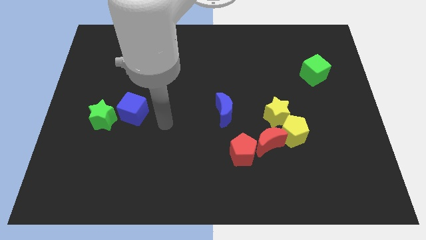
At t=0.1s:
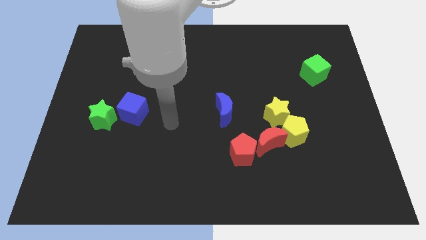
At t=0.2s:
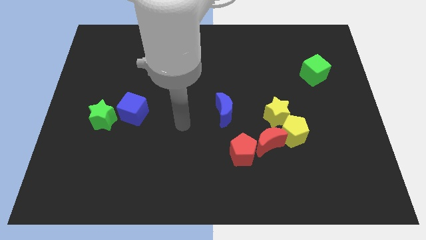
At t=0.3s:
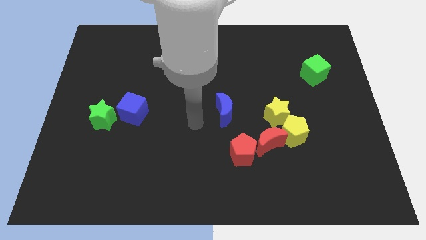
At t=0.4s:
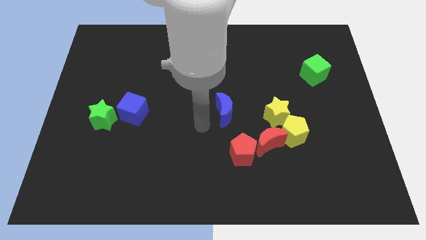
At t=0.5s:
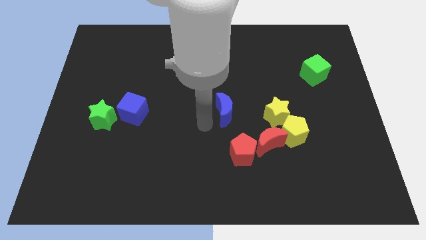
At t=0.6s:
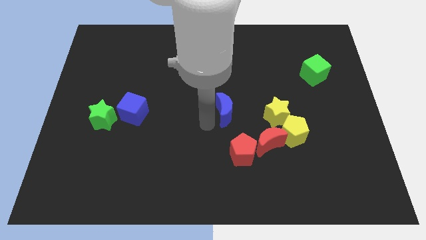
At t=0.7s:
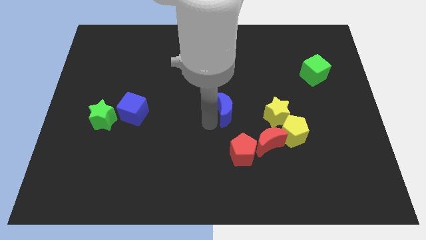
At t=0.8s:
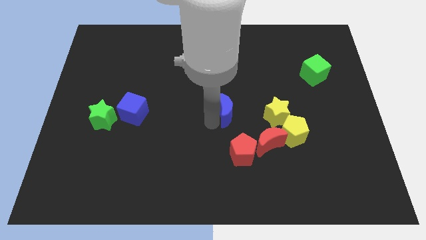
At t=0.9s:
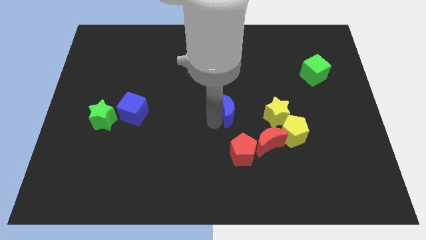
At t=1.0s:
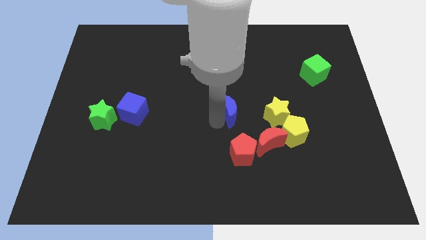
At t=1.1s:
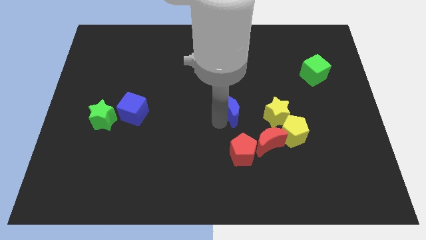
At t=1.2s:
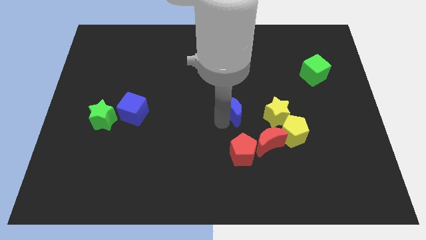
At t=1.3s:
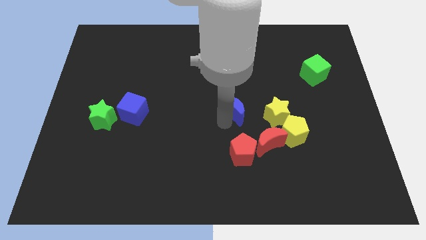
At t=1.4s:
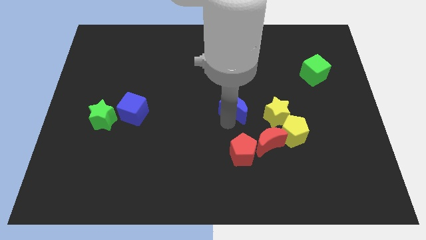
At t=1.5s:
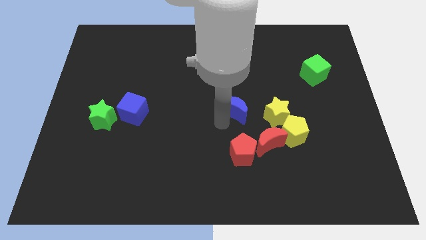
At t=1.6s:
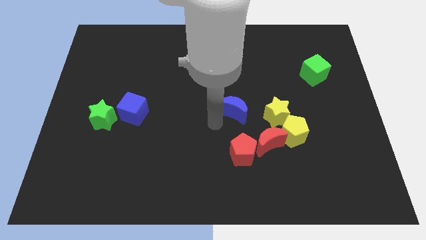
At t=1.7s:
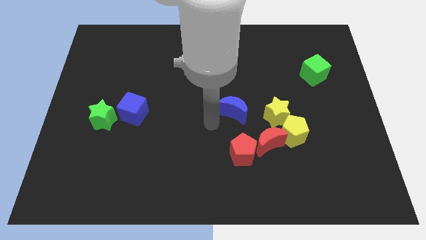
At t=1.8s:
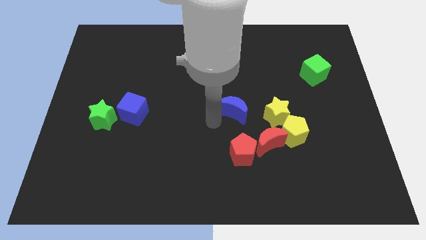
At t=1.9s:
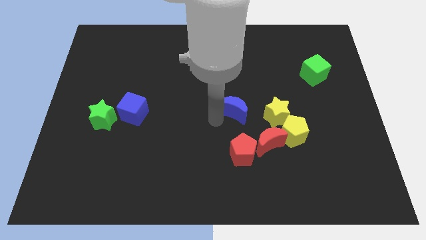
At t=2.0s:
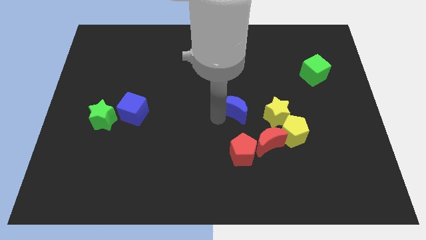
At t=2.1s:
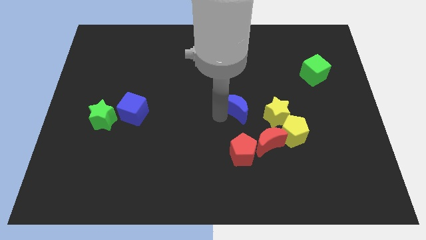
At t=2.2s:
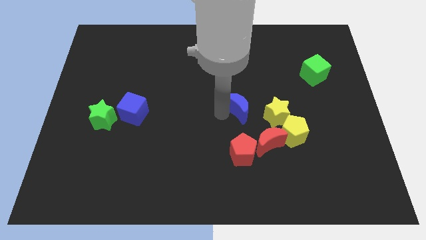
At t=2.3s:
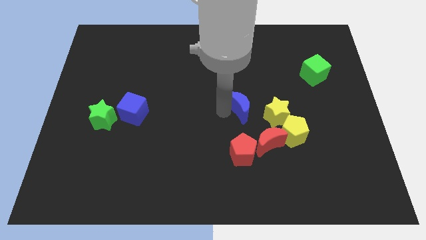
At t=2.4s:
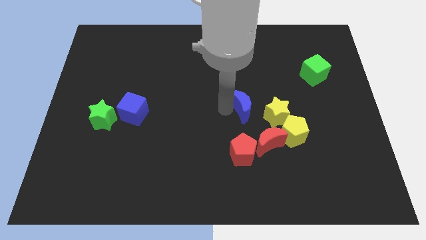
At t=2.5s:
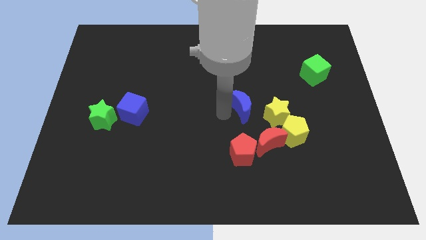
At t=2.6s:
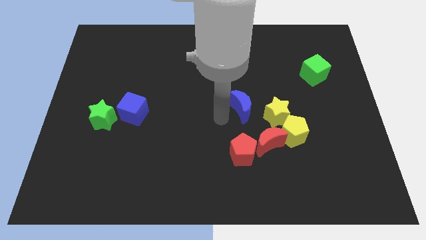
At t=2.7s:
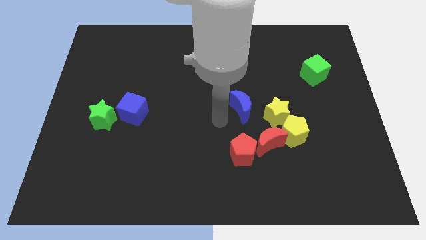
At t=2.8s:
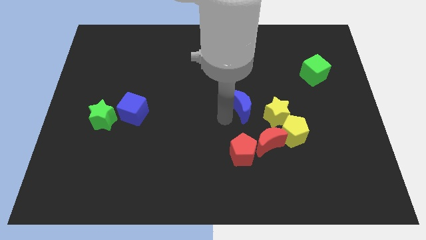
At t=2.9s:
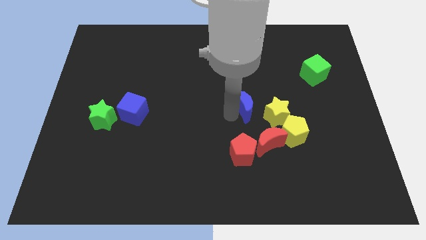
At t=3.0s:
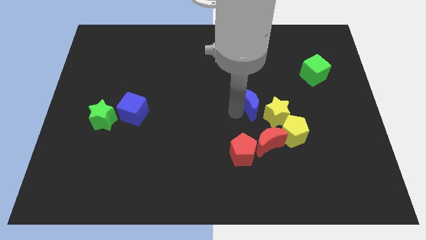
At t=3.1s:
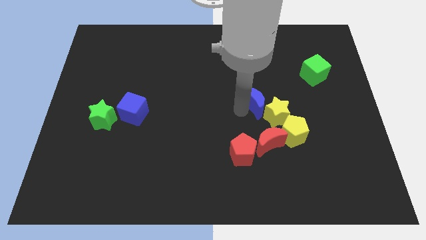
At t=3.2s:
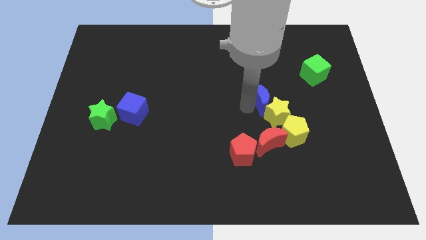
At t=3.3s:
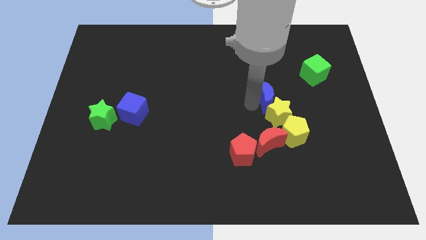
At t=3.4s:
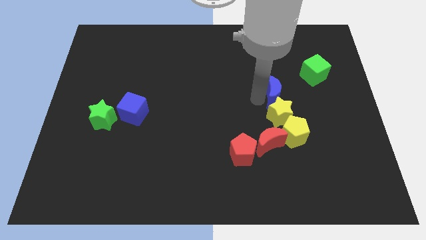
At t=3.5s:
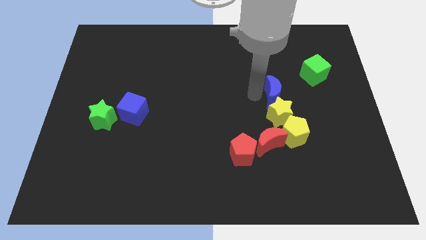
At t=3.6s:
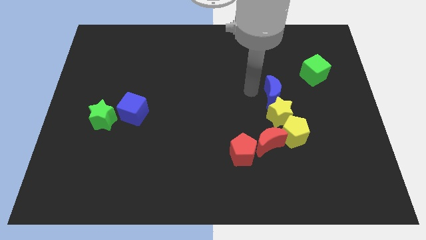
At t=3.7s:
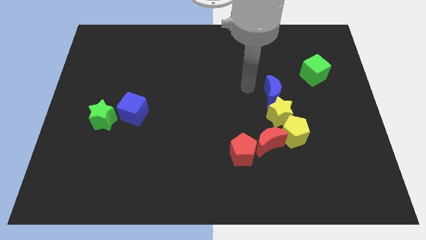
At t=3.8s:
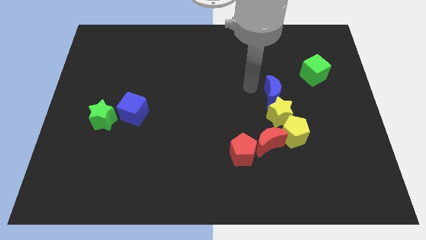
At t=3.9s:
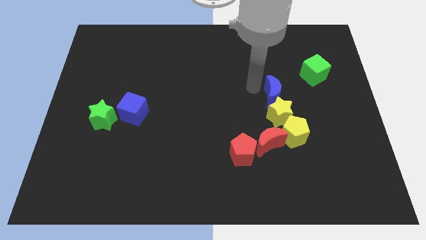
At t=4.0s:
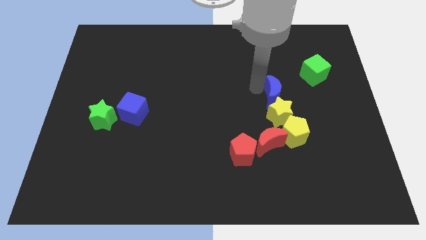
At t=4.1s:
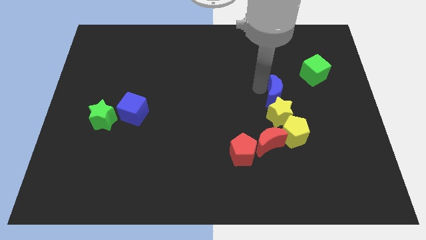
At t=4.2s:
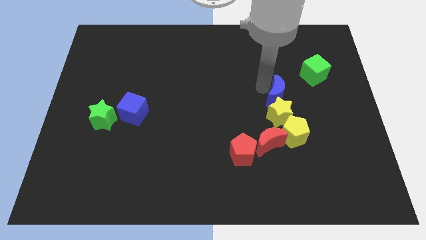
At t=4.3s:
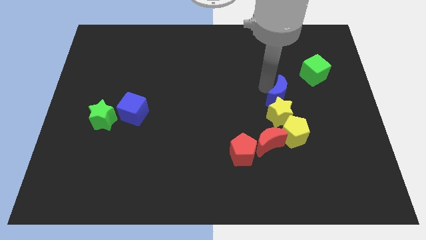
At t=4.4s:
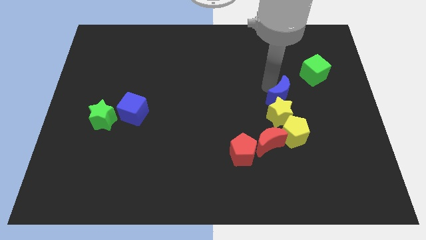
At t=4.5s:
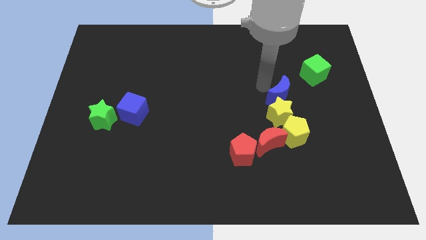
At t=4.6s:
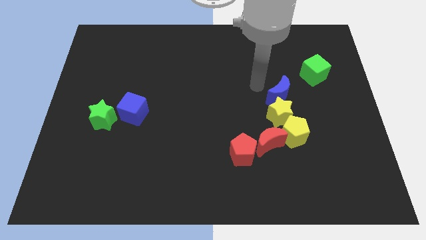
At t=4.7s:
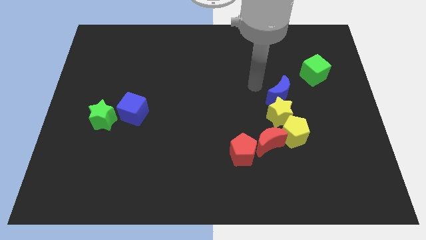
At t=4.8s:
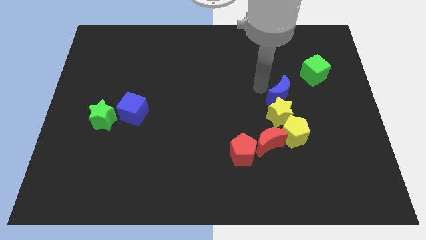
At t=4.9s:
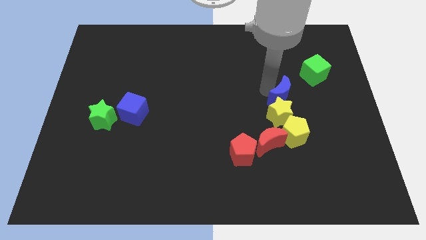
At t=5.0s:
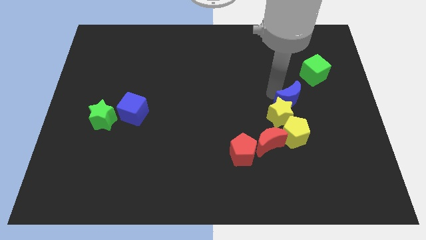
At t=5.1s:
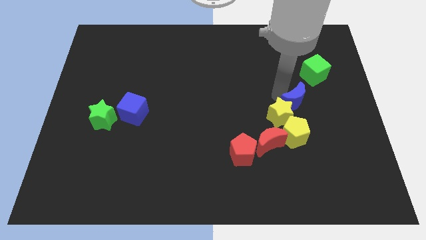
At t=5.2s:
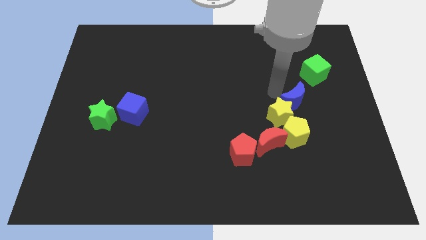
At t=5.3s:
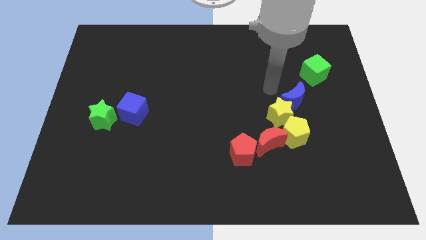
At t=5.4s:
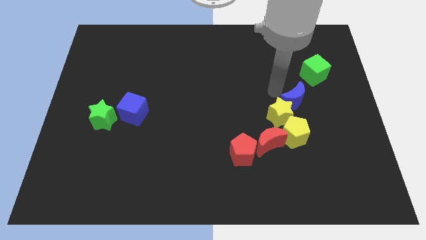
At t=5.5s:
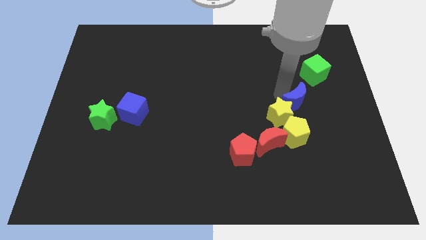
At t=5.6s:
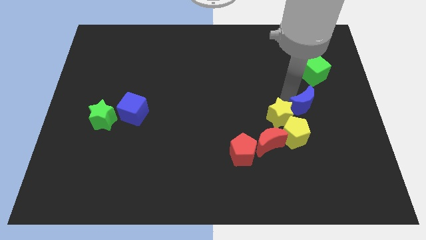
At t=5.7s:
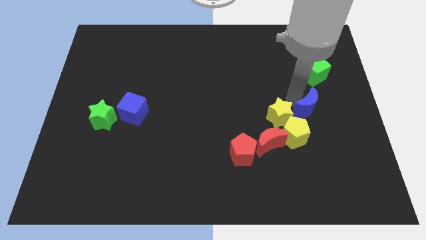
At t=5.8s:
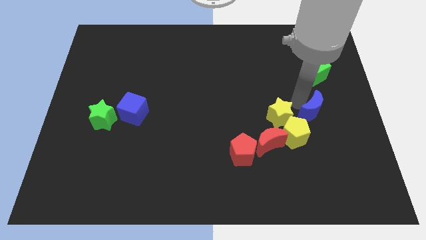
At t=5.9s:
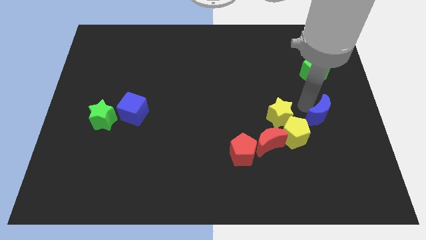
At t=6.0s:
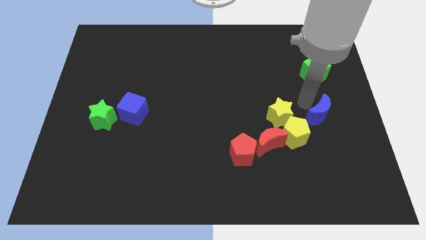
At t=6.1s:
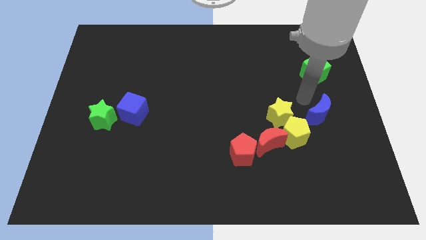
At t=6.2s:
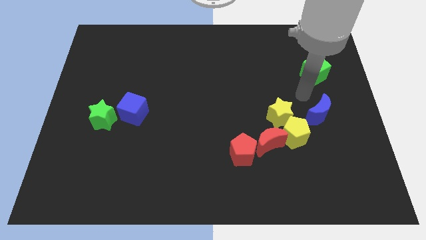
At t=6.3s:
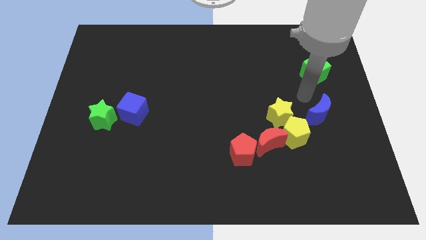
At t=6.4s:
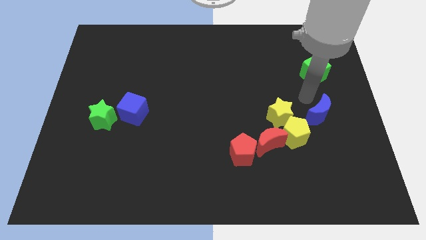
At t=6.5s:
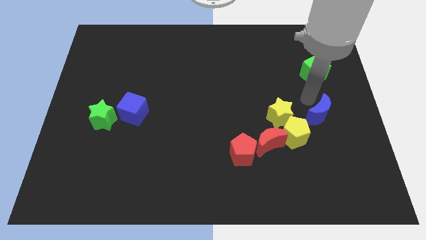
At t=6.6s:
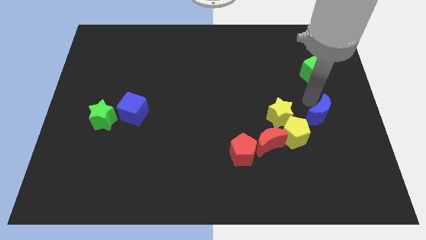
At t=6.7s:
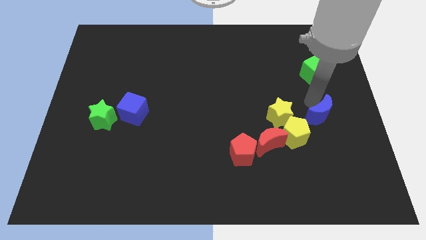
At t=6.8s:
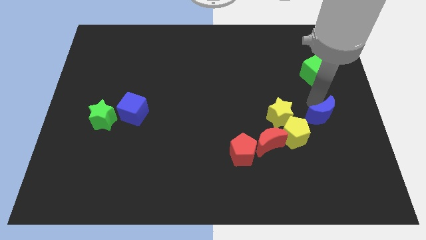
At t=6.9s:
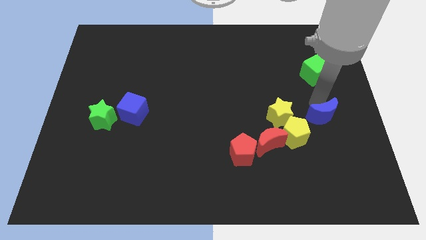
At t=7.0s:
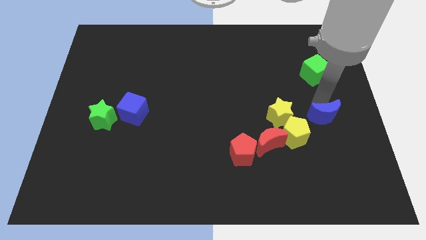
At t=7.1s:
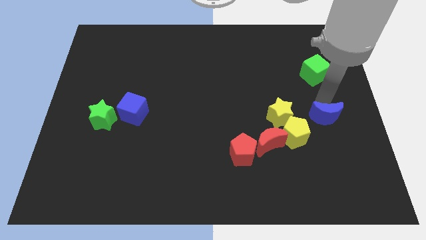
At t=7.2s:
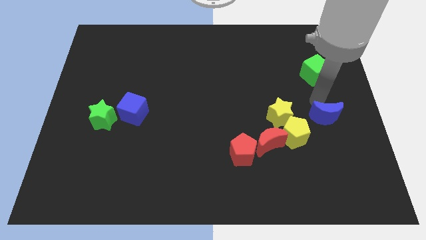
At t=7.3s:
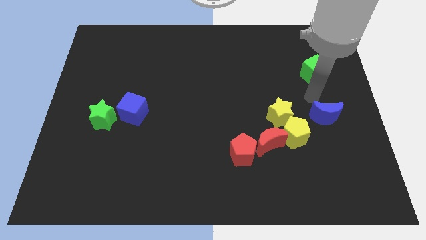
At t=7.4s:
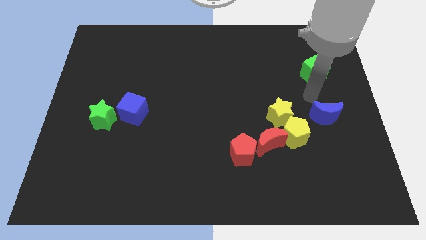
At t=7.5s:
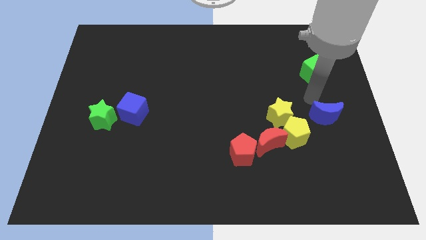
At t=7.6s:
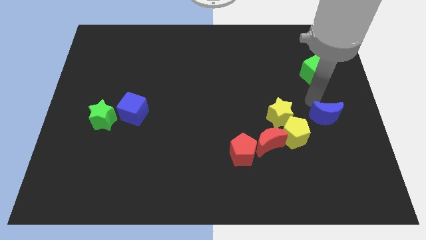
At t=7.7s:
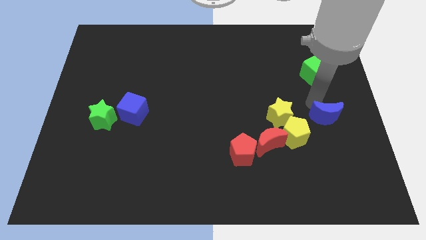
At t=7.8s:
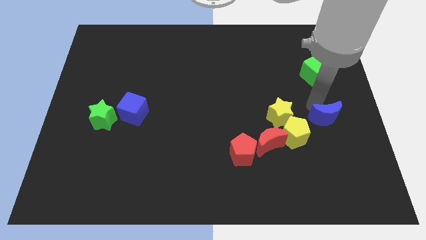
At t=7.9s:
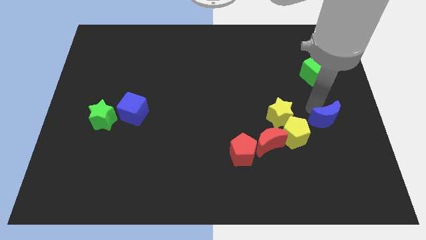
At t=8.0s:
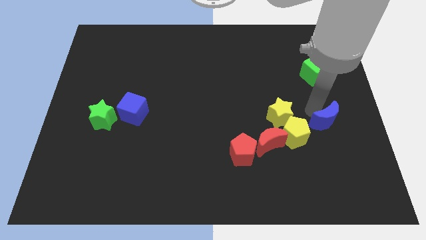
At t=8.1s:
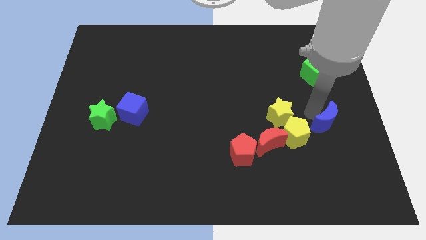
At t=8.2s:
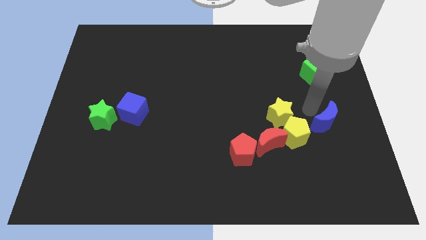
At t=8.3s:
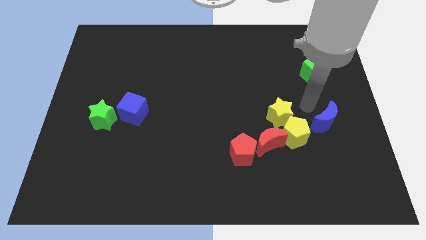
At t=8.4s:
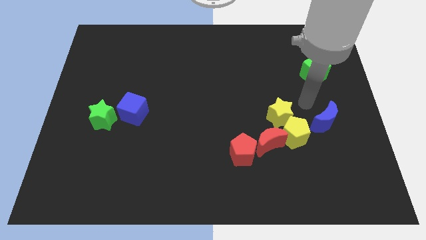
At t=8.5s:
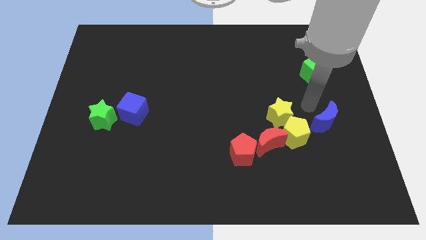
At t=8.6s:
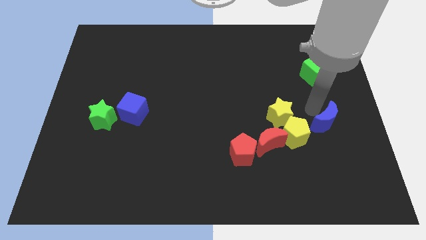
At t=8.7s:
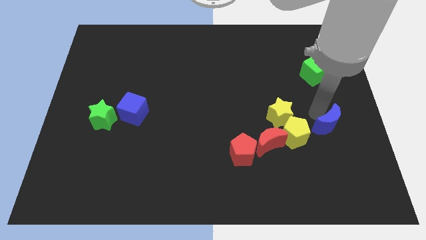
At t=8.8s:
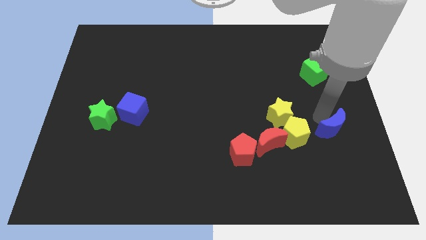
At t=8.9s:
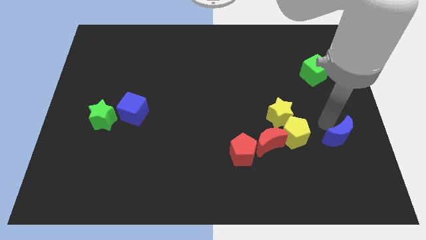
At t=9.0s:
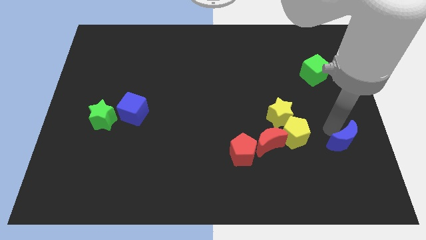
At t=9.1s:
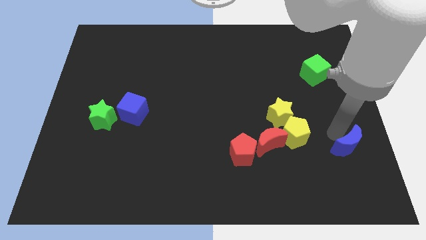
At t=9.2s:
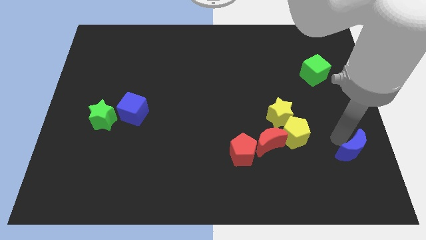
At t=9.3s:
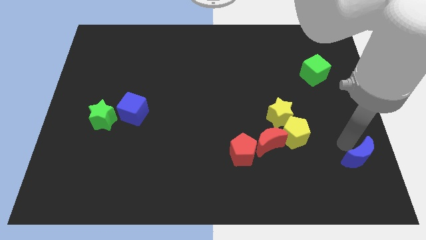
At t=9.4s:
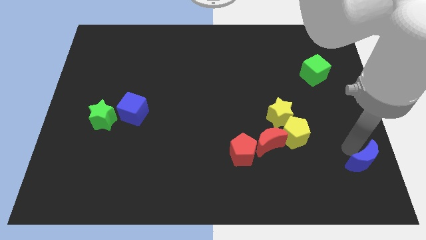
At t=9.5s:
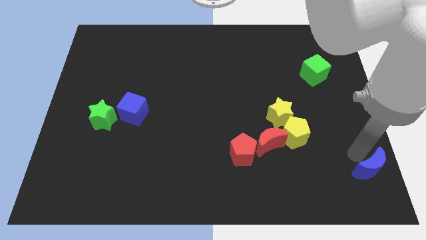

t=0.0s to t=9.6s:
push the blue moon to the lower right corner
